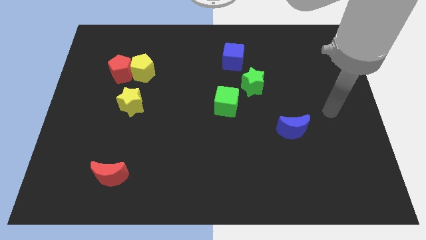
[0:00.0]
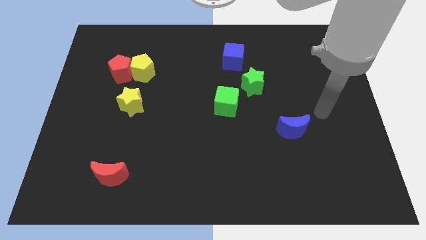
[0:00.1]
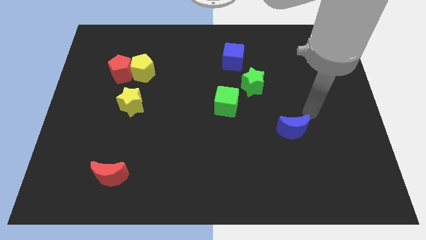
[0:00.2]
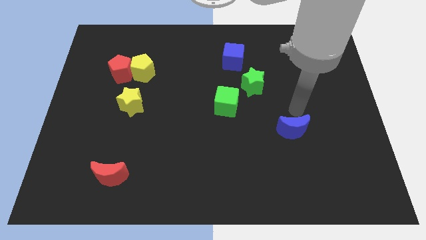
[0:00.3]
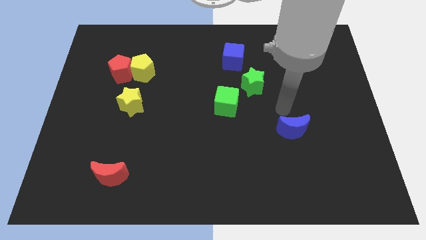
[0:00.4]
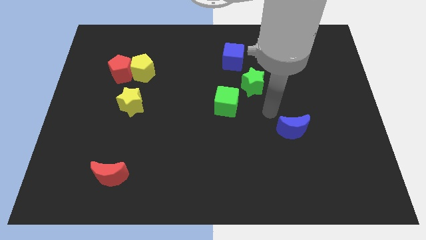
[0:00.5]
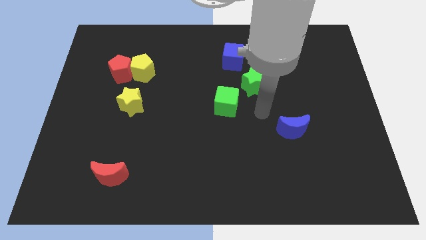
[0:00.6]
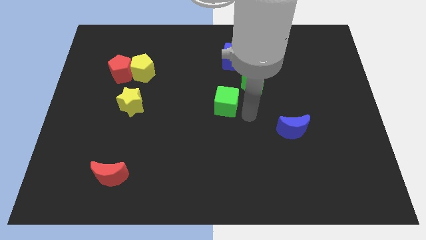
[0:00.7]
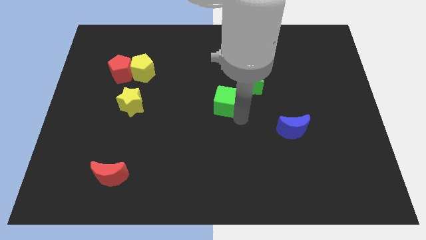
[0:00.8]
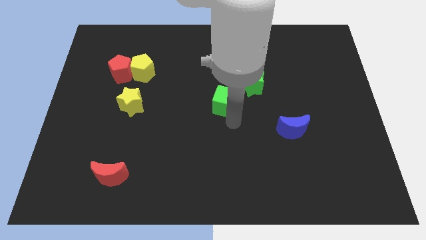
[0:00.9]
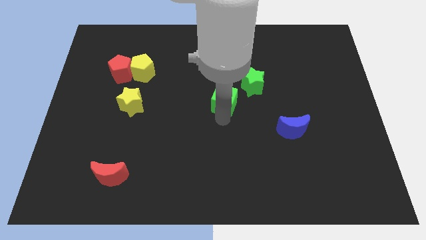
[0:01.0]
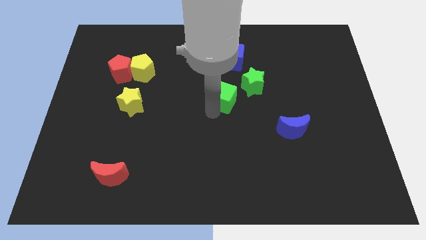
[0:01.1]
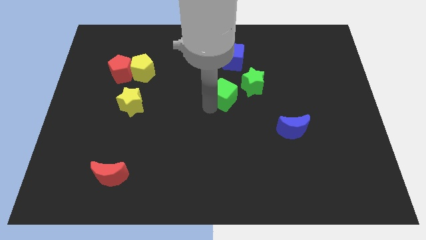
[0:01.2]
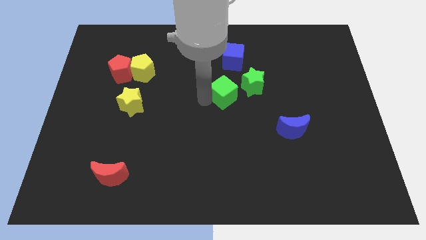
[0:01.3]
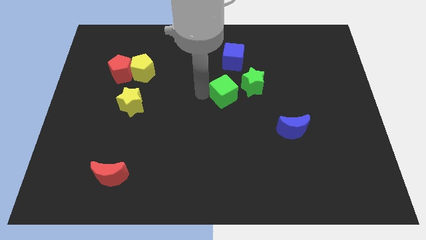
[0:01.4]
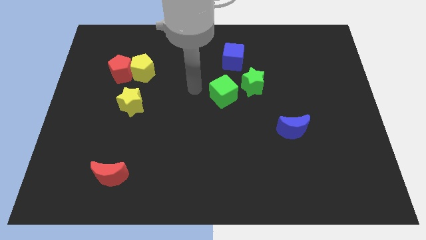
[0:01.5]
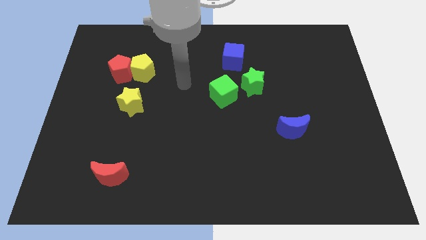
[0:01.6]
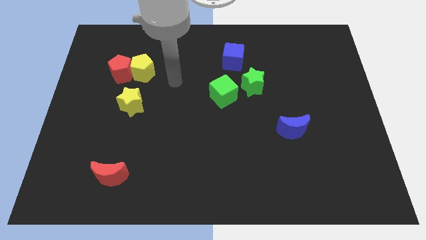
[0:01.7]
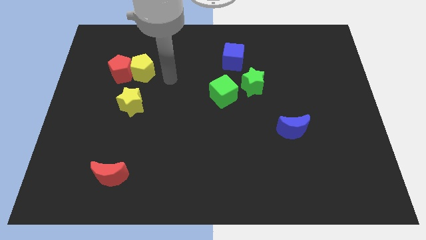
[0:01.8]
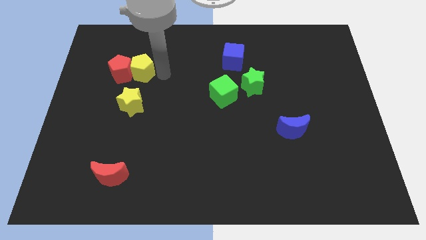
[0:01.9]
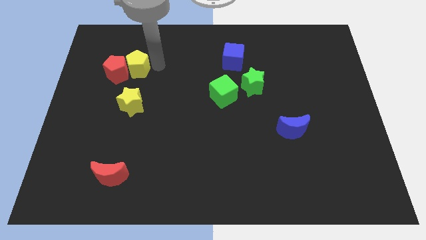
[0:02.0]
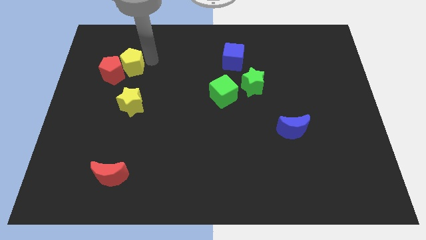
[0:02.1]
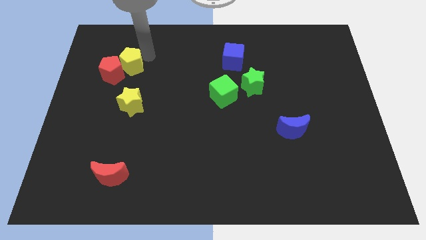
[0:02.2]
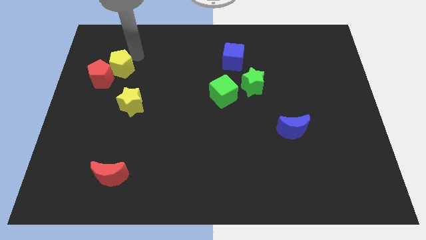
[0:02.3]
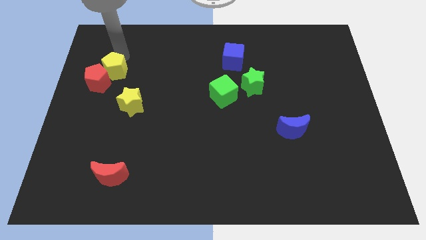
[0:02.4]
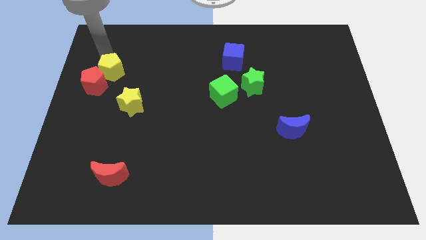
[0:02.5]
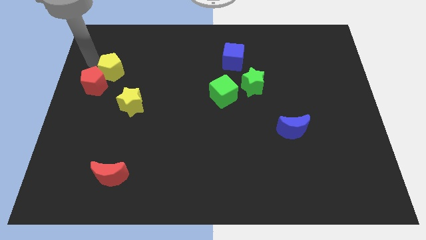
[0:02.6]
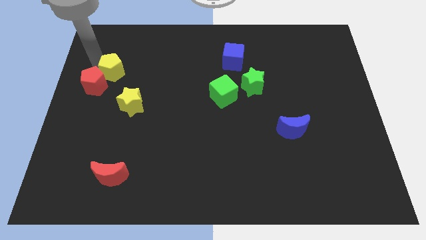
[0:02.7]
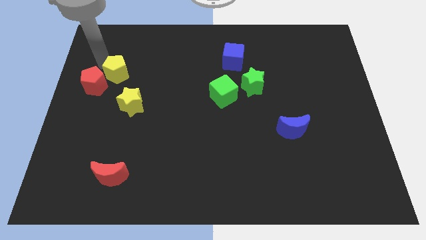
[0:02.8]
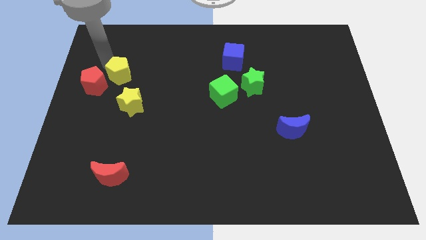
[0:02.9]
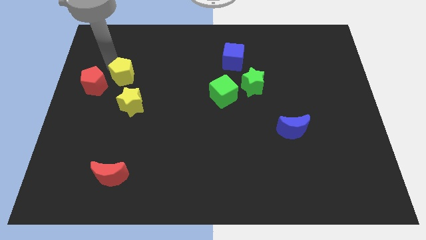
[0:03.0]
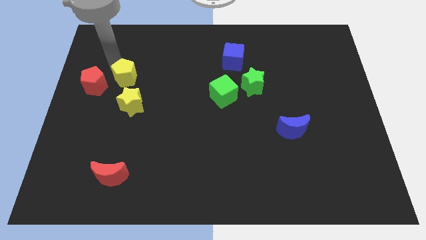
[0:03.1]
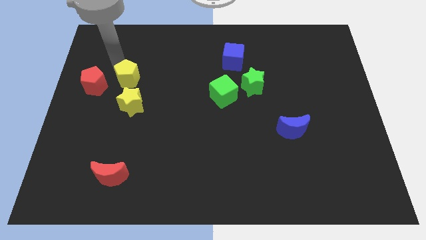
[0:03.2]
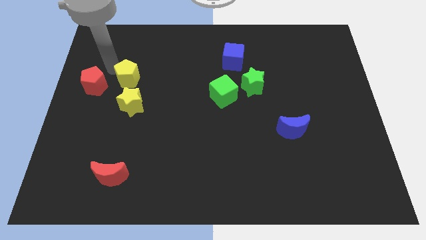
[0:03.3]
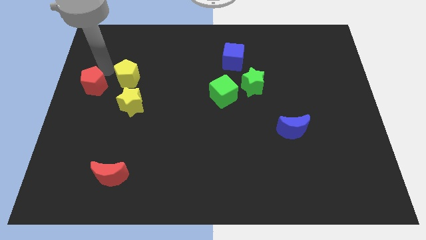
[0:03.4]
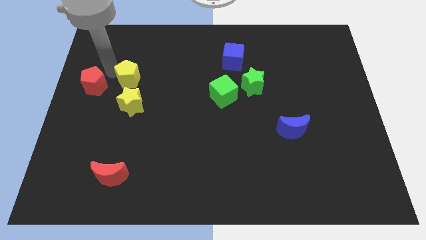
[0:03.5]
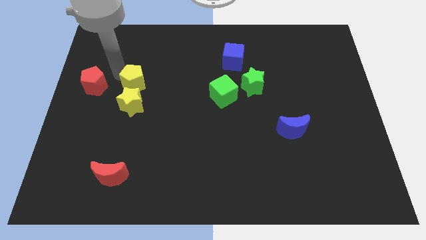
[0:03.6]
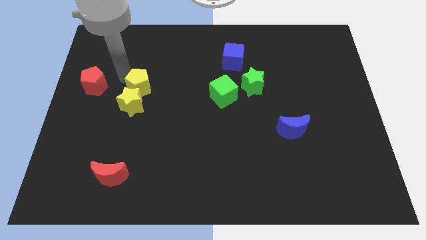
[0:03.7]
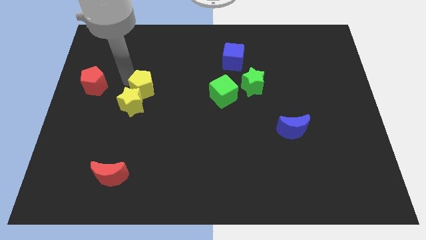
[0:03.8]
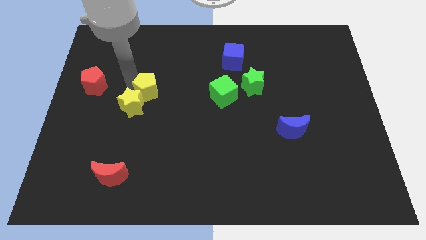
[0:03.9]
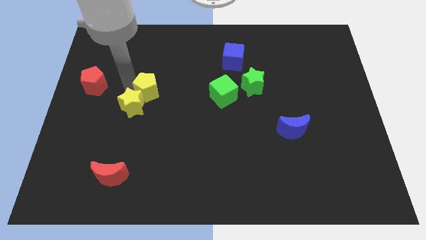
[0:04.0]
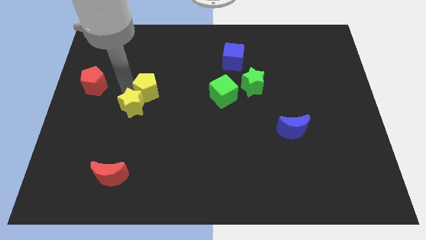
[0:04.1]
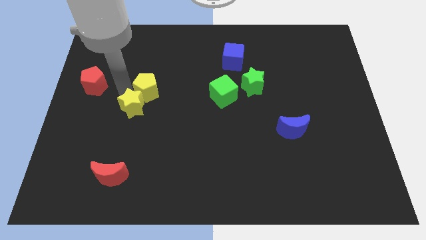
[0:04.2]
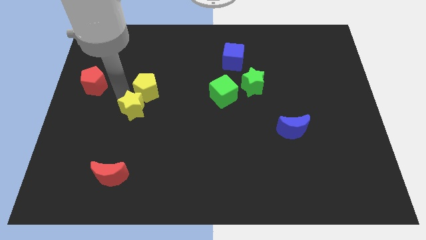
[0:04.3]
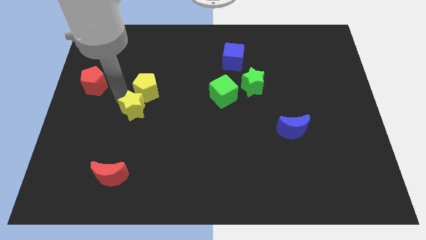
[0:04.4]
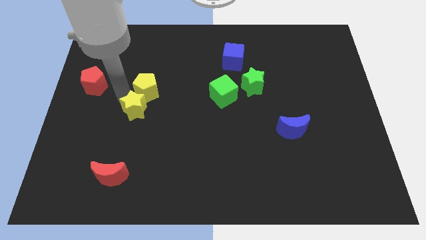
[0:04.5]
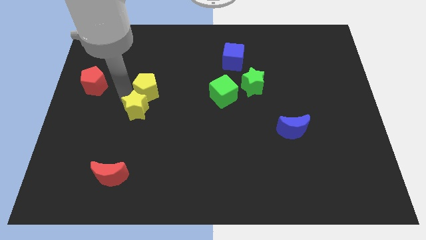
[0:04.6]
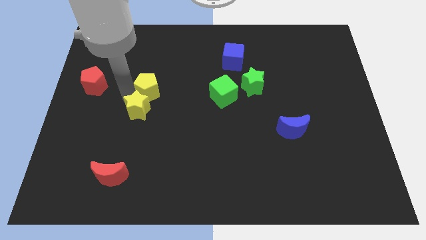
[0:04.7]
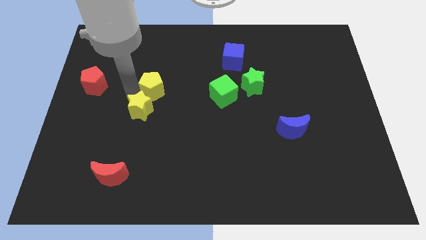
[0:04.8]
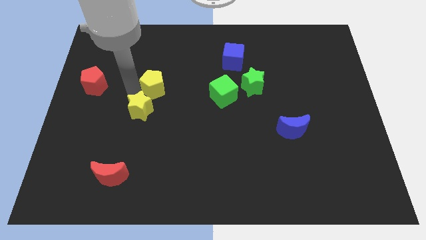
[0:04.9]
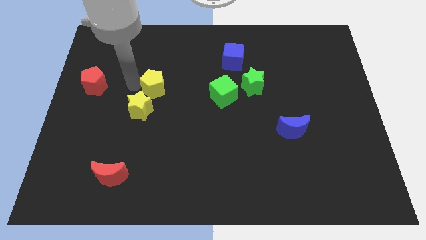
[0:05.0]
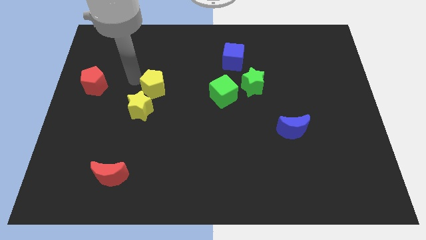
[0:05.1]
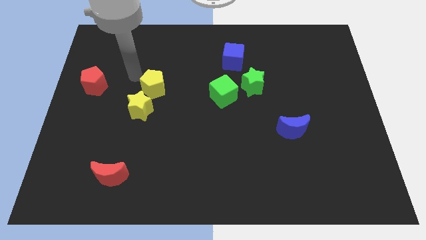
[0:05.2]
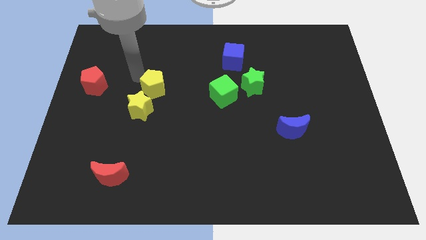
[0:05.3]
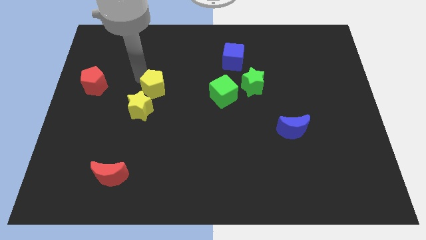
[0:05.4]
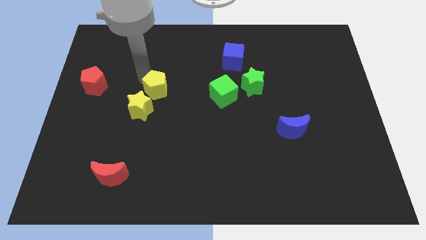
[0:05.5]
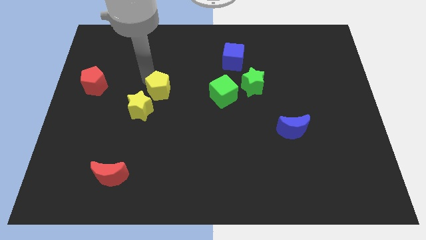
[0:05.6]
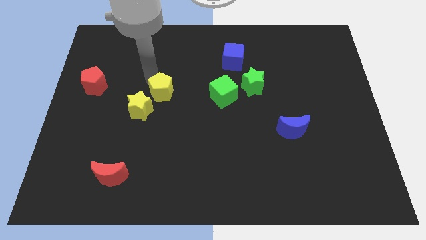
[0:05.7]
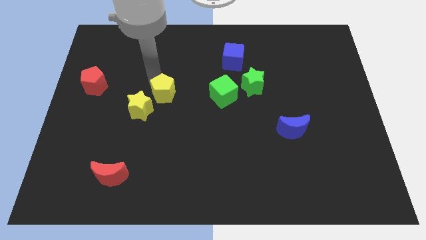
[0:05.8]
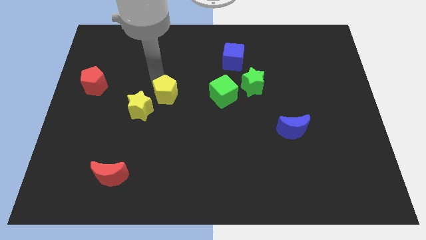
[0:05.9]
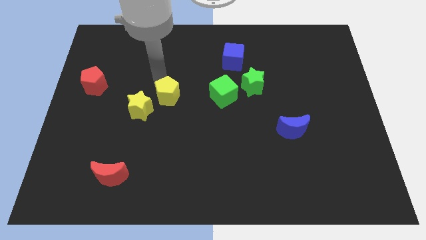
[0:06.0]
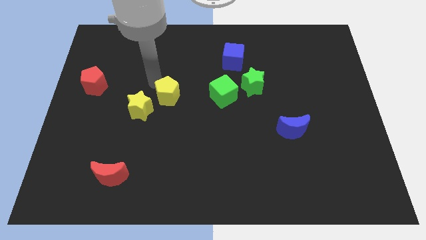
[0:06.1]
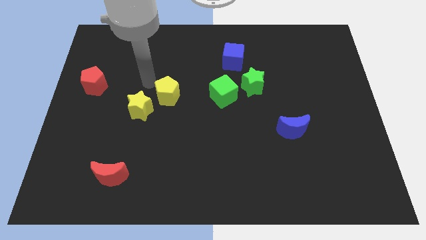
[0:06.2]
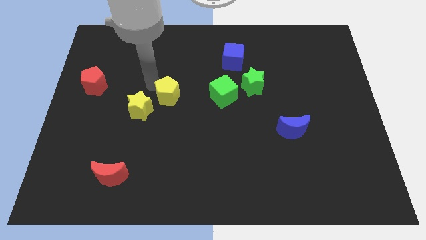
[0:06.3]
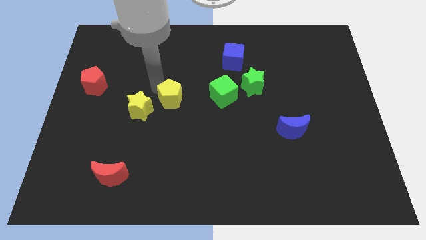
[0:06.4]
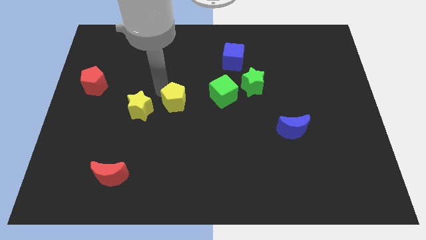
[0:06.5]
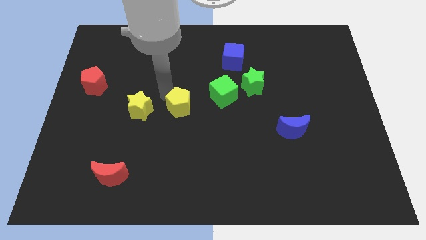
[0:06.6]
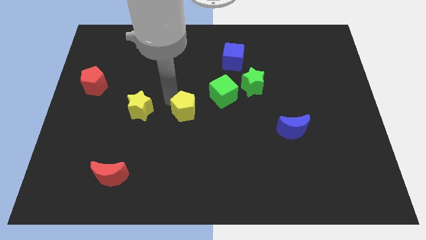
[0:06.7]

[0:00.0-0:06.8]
put the yellow pentagon to the bottom left of the green cube

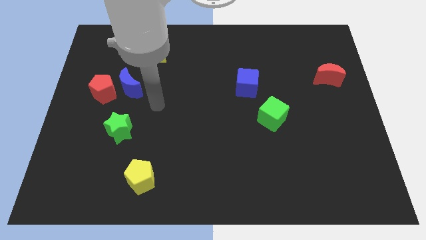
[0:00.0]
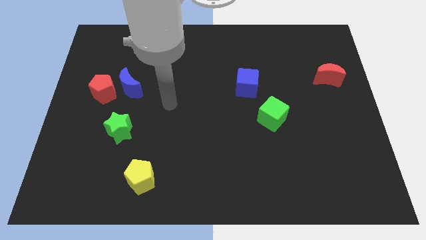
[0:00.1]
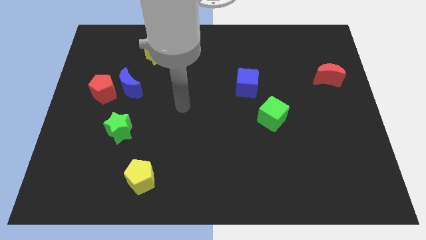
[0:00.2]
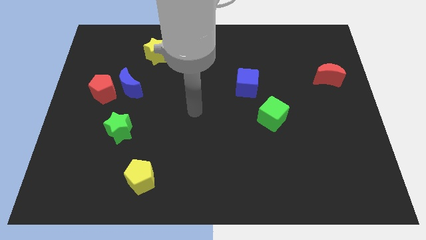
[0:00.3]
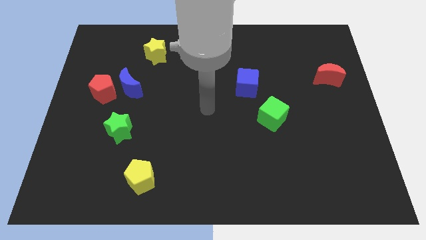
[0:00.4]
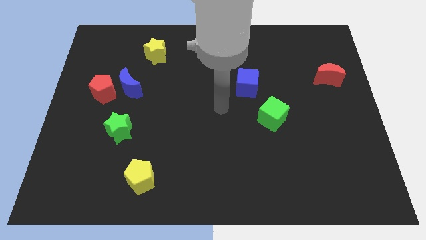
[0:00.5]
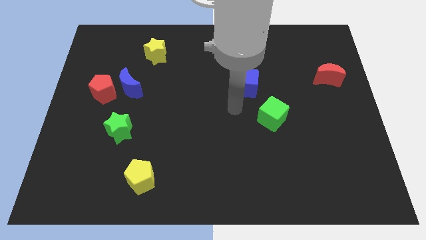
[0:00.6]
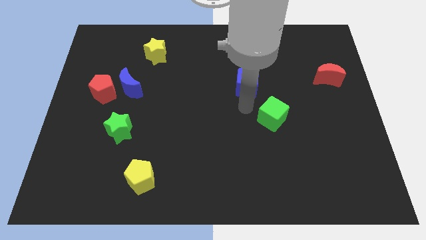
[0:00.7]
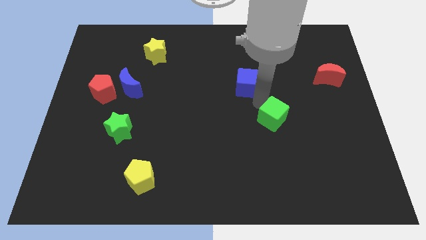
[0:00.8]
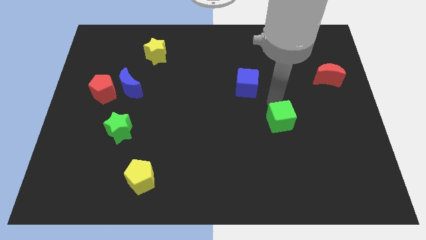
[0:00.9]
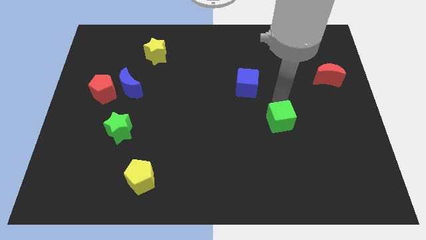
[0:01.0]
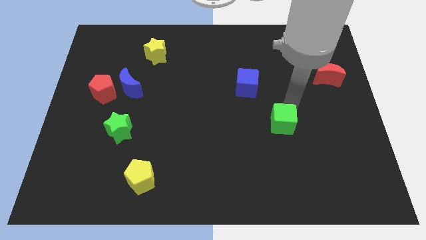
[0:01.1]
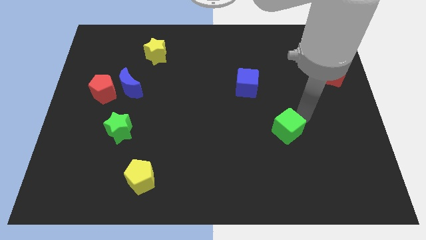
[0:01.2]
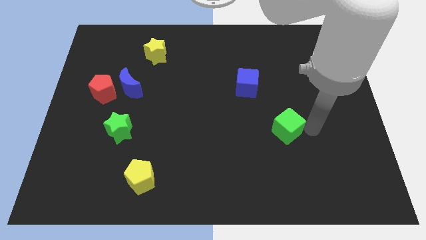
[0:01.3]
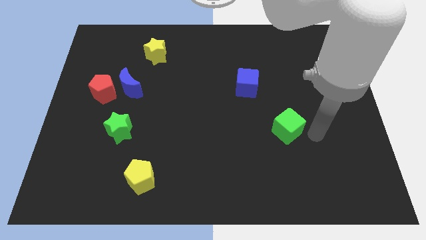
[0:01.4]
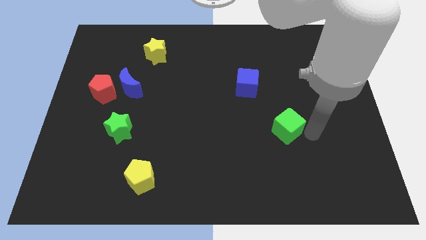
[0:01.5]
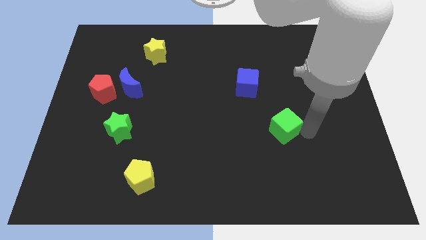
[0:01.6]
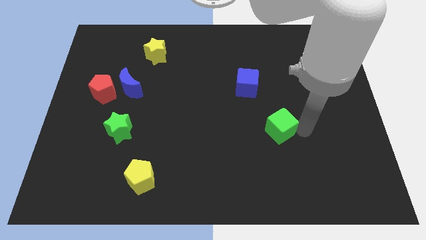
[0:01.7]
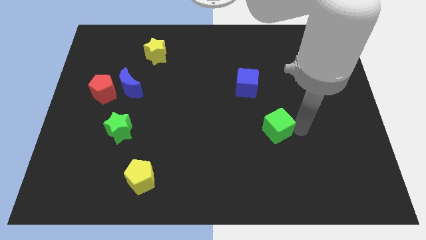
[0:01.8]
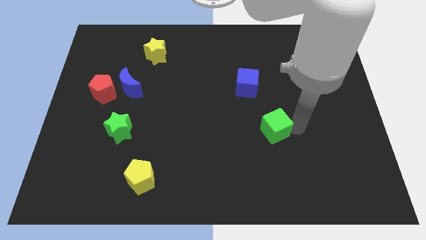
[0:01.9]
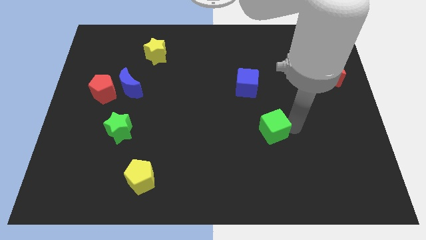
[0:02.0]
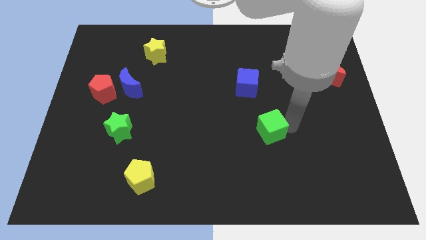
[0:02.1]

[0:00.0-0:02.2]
move the green cube below the blue cube
